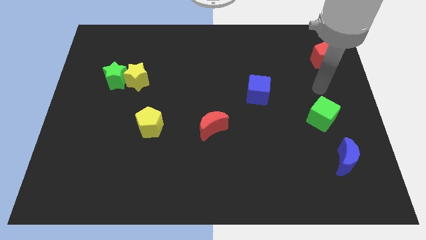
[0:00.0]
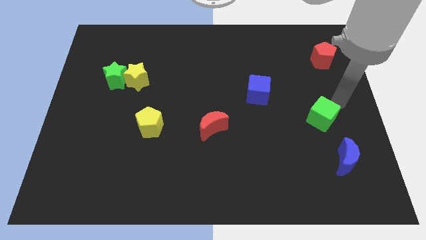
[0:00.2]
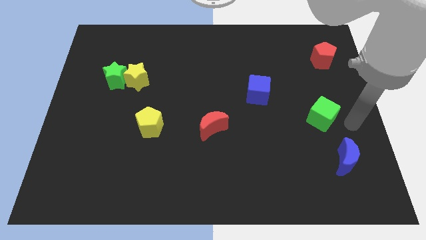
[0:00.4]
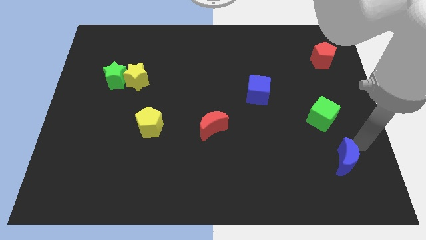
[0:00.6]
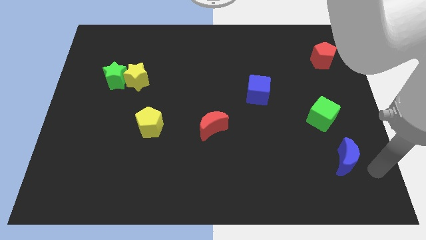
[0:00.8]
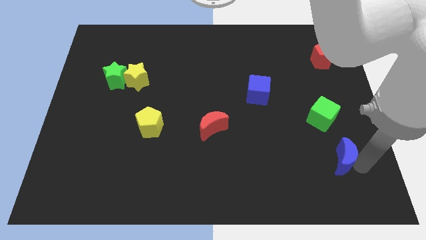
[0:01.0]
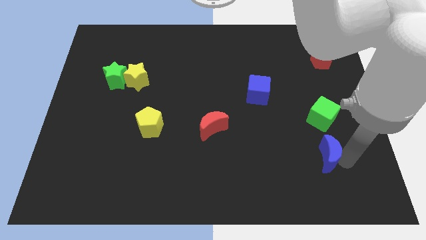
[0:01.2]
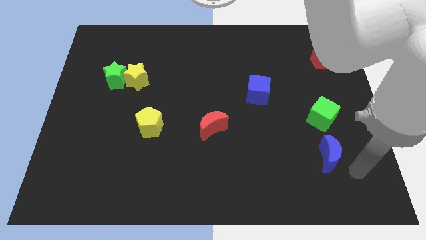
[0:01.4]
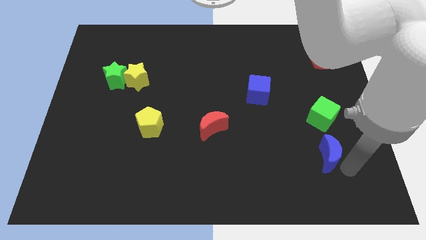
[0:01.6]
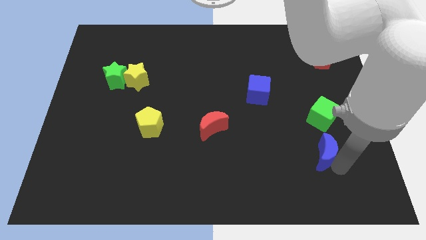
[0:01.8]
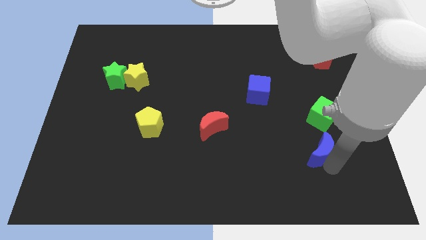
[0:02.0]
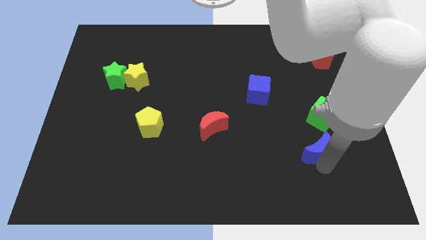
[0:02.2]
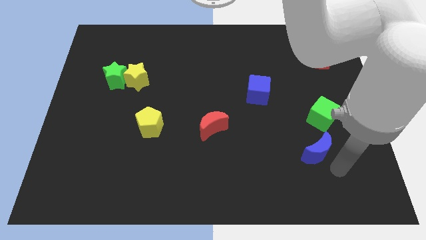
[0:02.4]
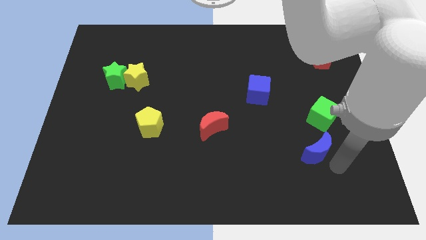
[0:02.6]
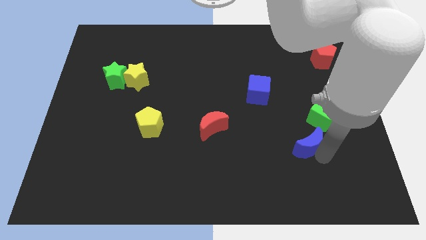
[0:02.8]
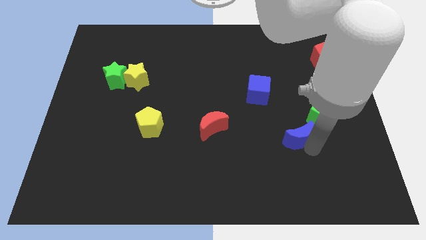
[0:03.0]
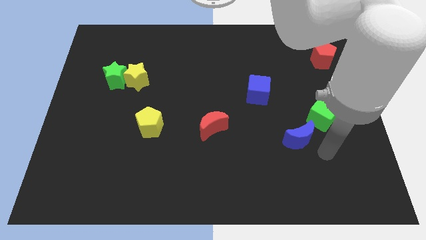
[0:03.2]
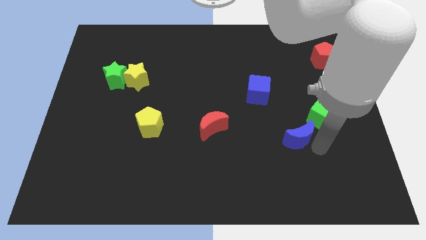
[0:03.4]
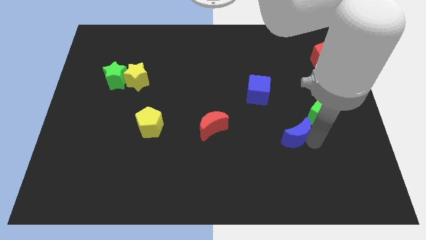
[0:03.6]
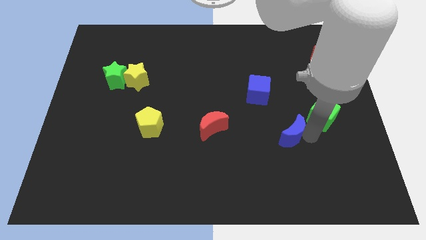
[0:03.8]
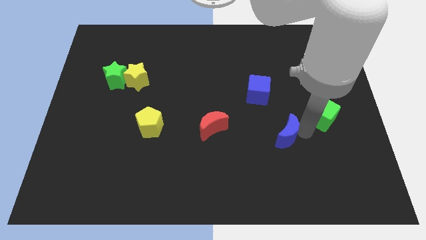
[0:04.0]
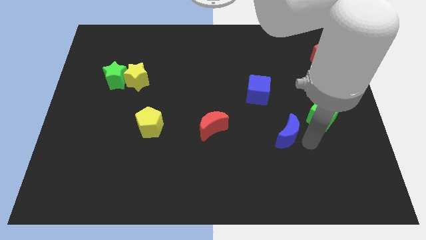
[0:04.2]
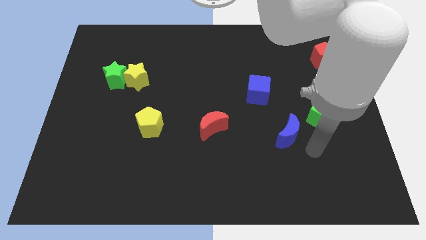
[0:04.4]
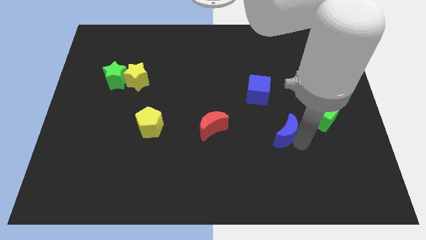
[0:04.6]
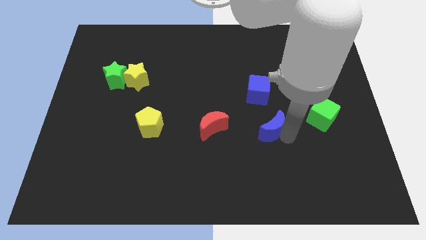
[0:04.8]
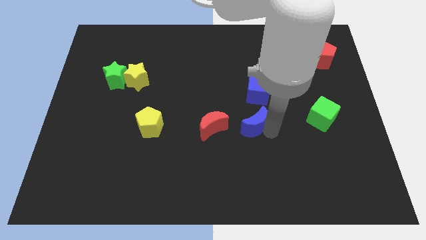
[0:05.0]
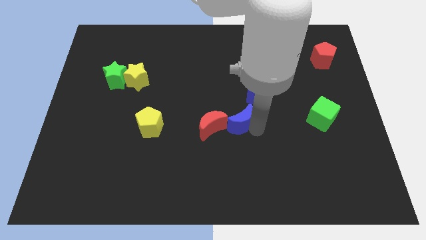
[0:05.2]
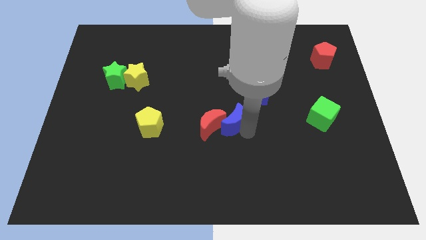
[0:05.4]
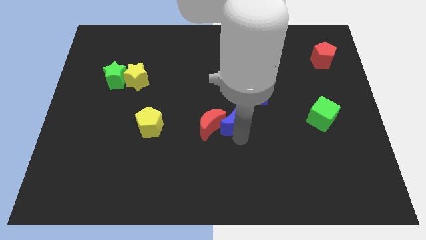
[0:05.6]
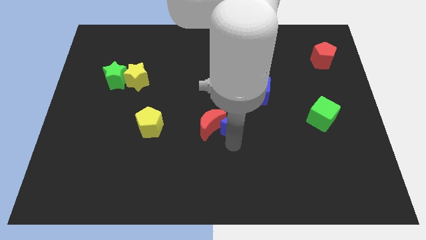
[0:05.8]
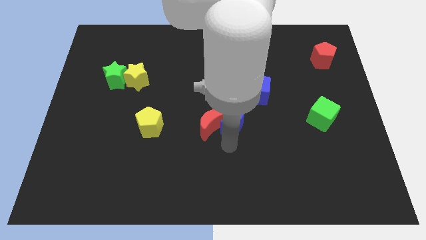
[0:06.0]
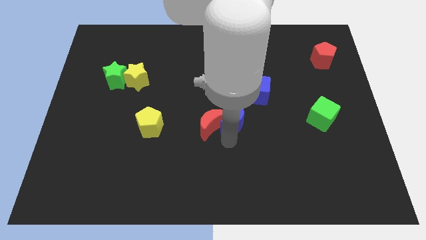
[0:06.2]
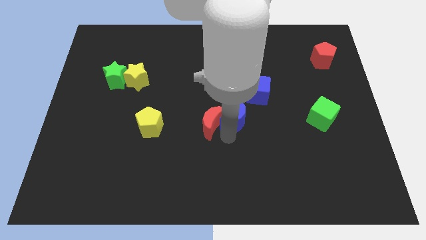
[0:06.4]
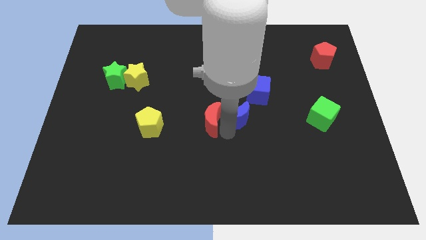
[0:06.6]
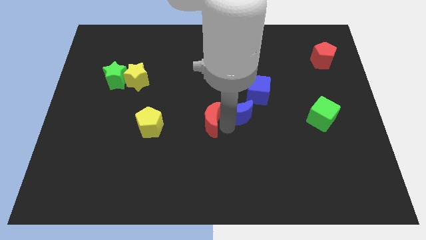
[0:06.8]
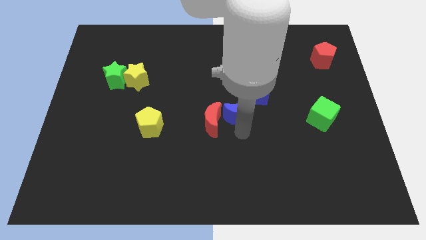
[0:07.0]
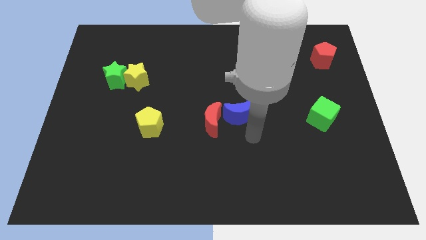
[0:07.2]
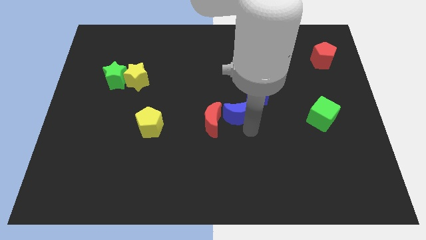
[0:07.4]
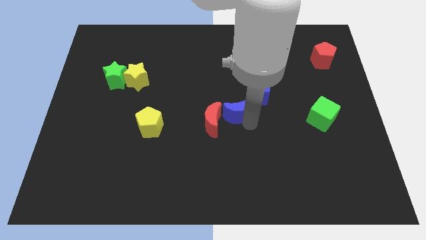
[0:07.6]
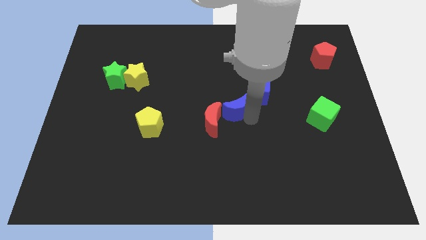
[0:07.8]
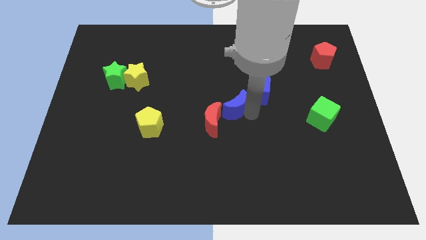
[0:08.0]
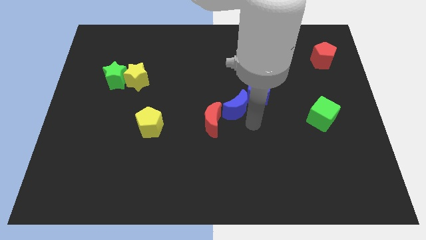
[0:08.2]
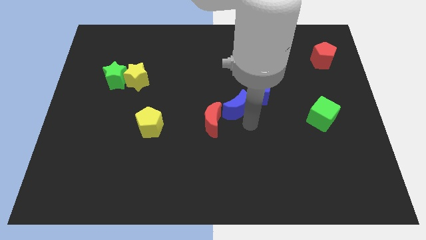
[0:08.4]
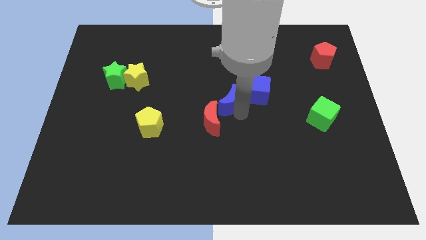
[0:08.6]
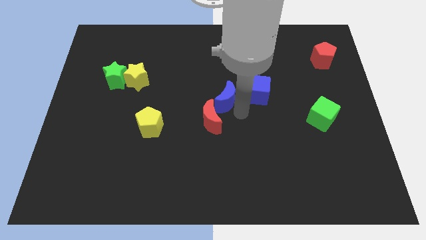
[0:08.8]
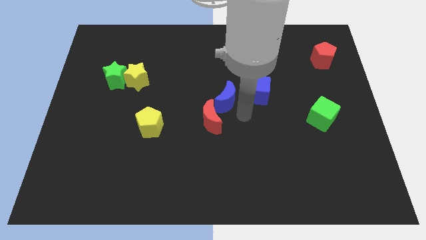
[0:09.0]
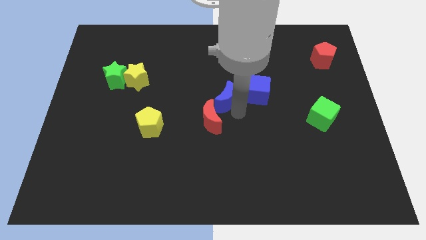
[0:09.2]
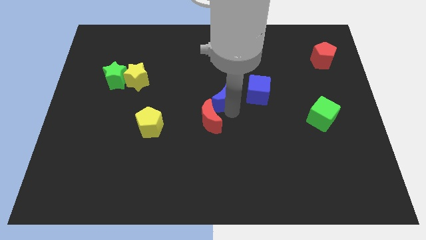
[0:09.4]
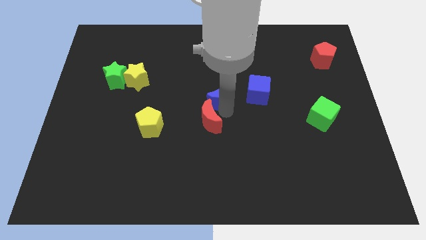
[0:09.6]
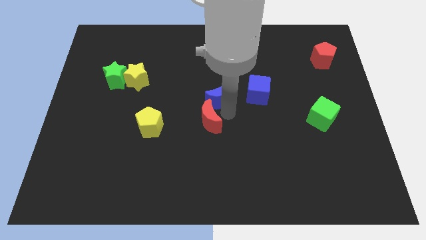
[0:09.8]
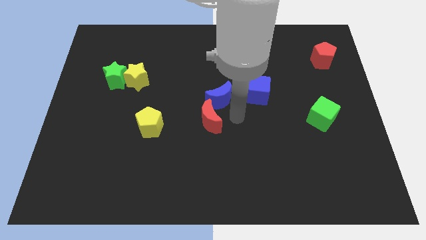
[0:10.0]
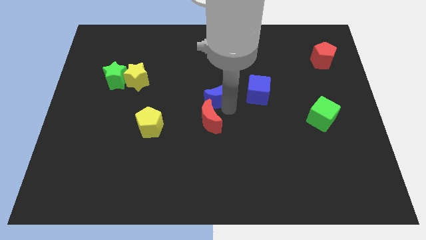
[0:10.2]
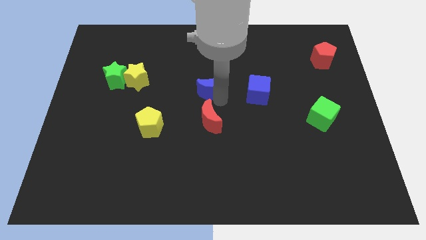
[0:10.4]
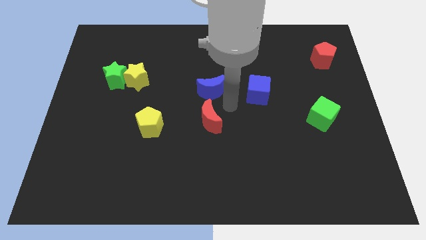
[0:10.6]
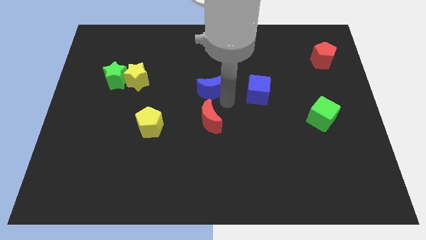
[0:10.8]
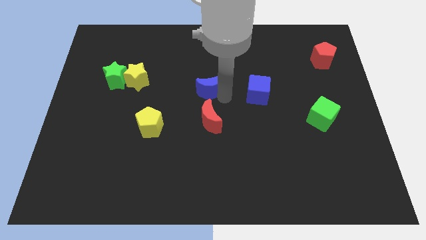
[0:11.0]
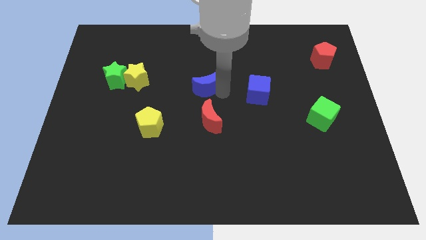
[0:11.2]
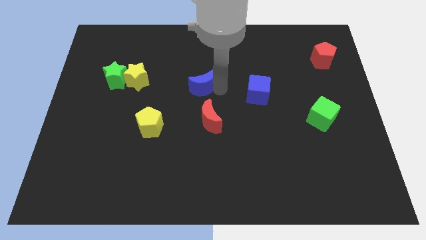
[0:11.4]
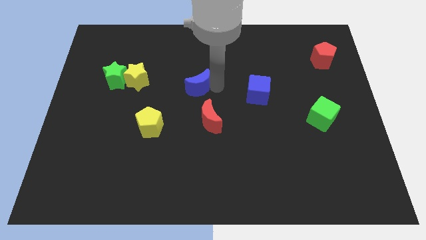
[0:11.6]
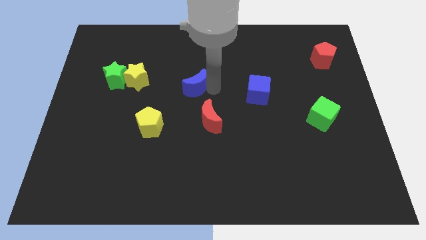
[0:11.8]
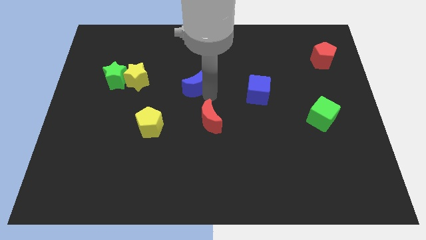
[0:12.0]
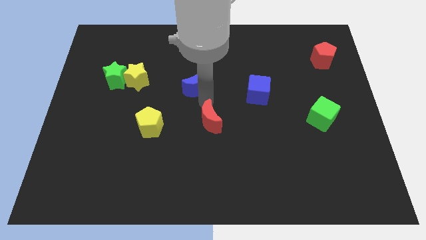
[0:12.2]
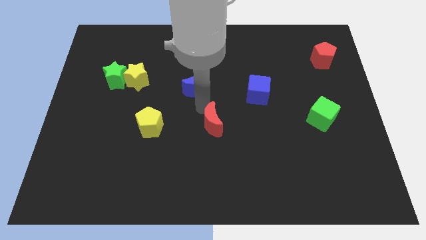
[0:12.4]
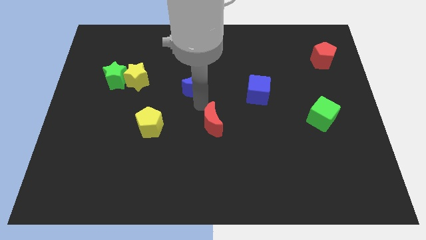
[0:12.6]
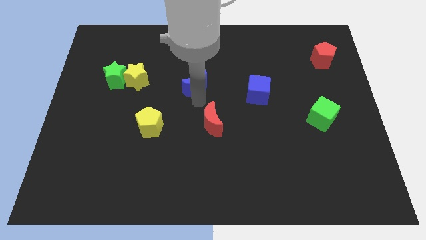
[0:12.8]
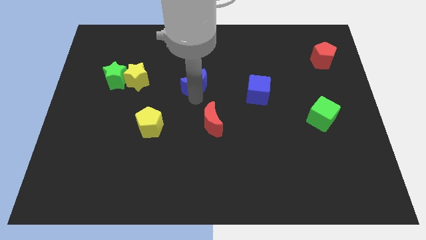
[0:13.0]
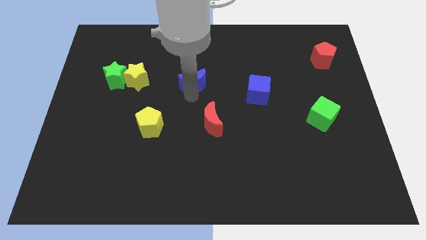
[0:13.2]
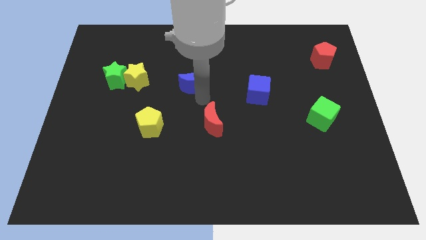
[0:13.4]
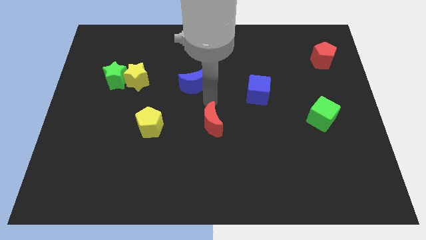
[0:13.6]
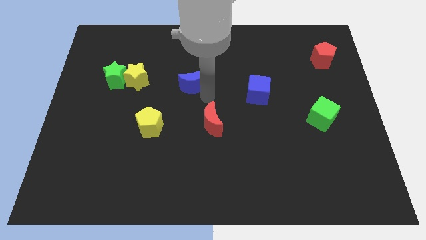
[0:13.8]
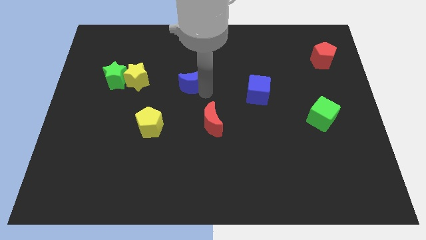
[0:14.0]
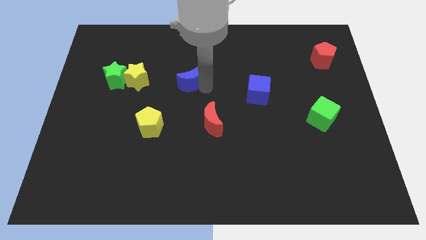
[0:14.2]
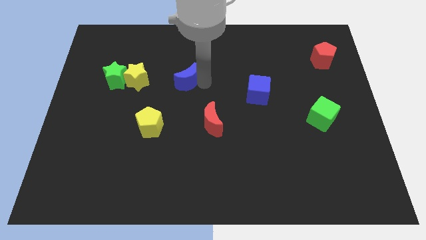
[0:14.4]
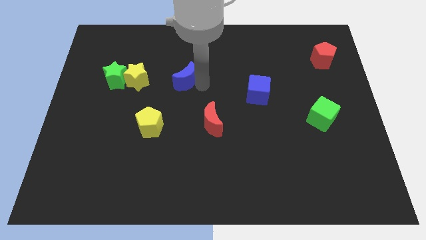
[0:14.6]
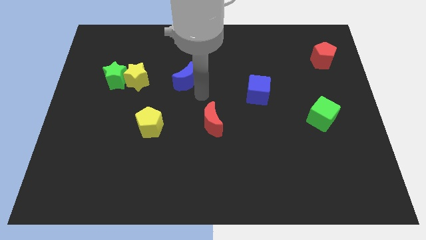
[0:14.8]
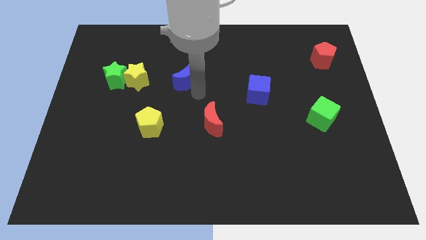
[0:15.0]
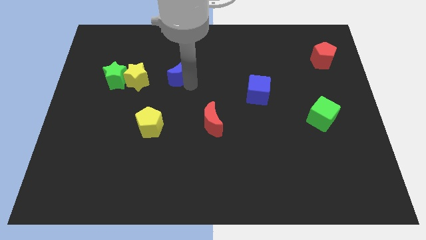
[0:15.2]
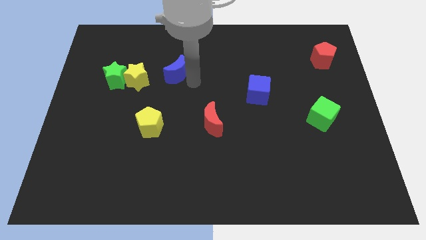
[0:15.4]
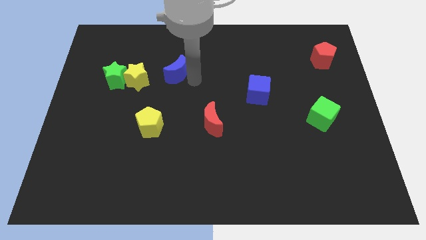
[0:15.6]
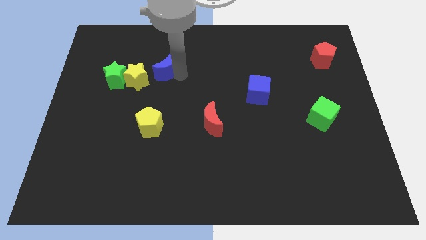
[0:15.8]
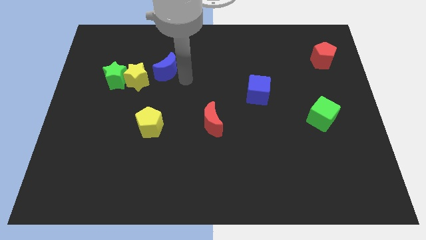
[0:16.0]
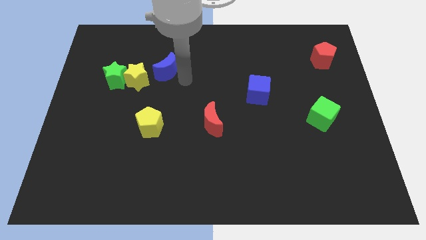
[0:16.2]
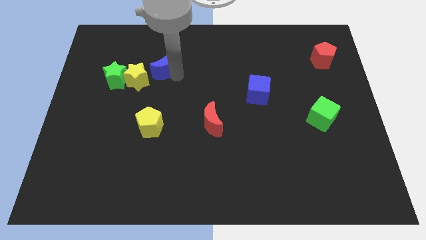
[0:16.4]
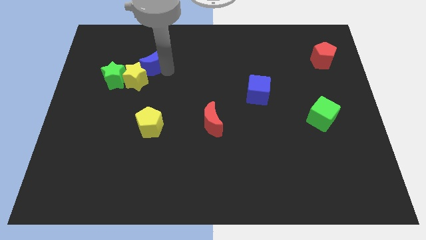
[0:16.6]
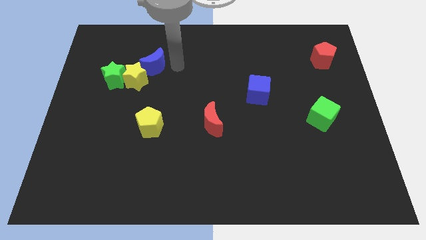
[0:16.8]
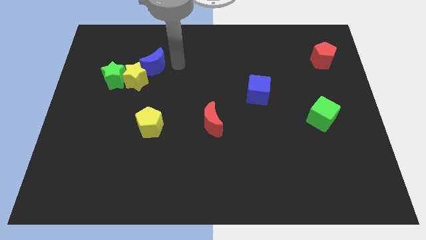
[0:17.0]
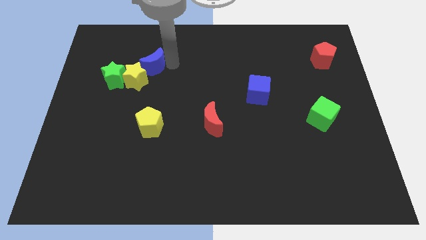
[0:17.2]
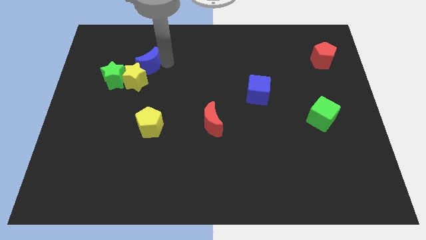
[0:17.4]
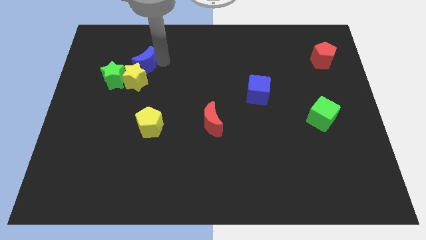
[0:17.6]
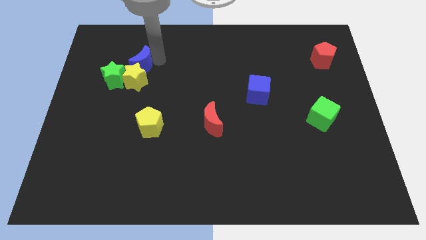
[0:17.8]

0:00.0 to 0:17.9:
push the blue moon diagonally up and to the left of the yellow star
